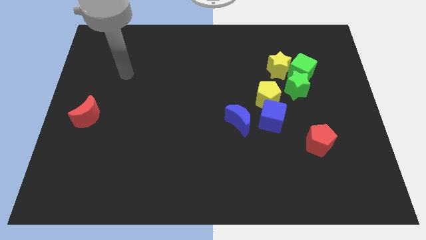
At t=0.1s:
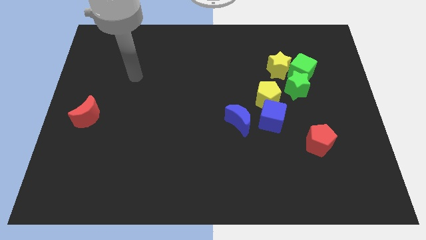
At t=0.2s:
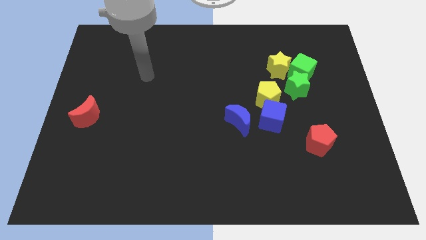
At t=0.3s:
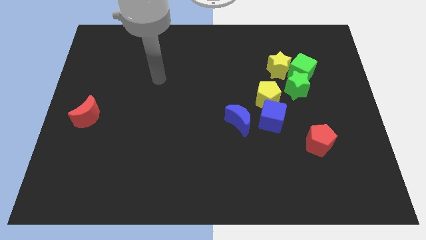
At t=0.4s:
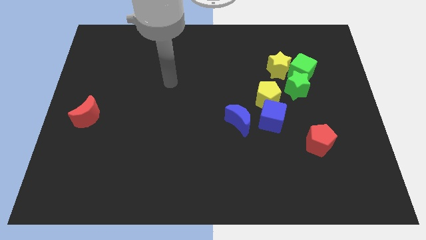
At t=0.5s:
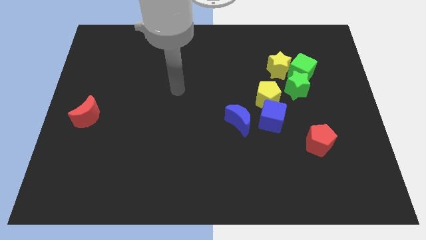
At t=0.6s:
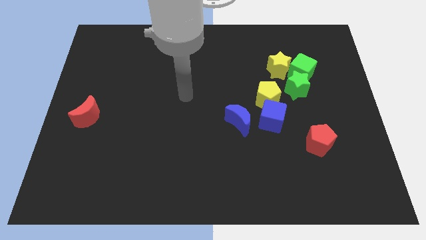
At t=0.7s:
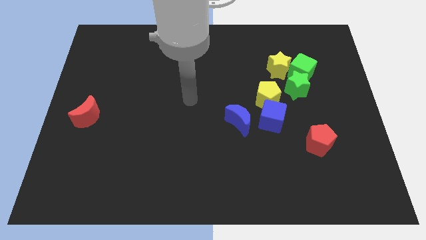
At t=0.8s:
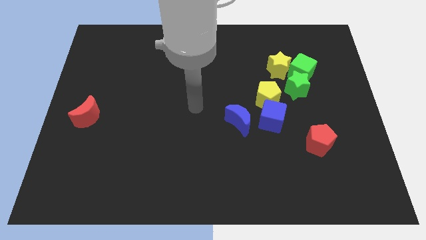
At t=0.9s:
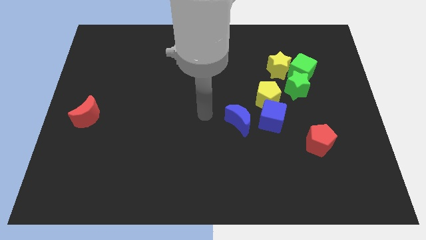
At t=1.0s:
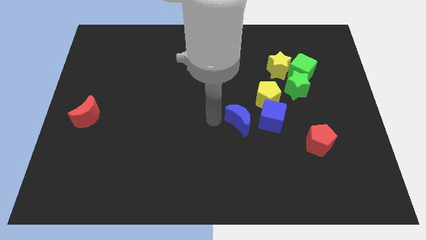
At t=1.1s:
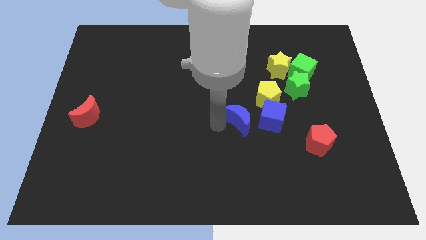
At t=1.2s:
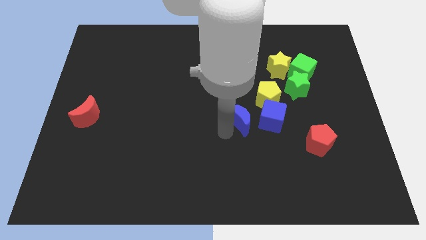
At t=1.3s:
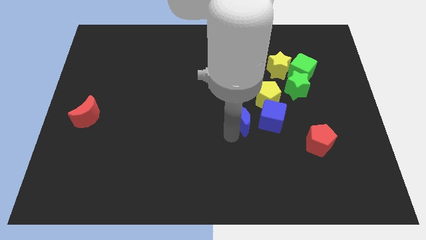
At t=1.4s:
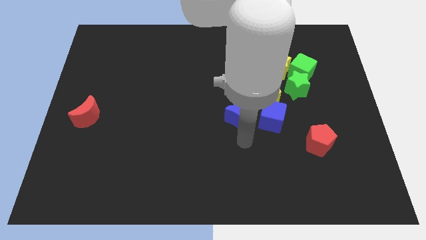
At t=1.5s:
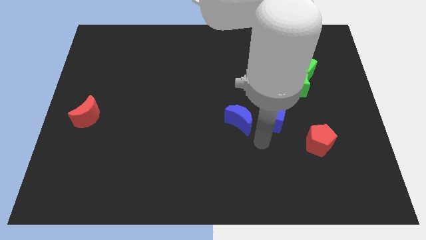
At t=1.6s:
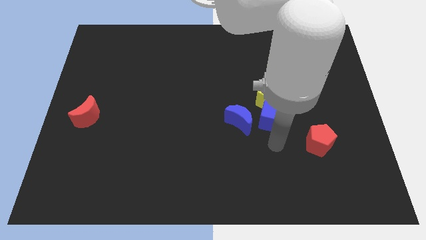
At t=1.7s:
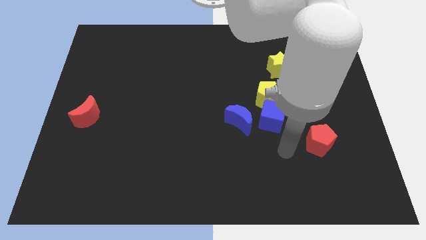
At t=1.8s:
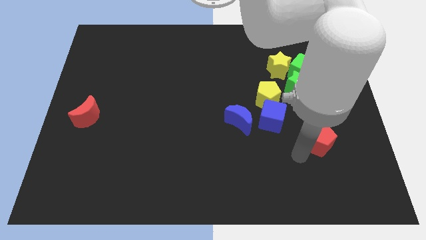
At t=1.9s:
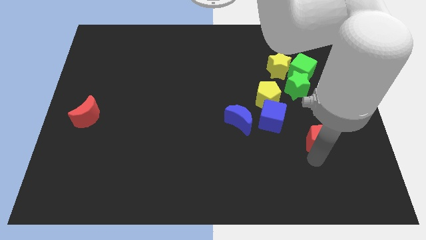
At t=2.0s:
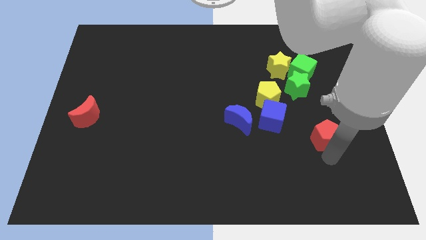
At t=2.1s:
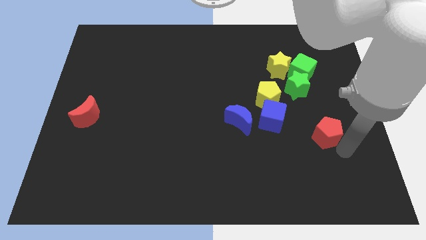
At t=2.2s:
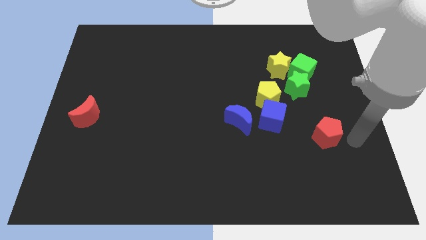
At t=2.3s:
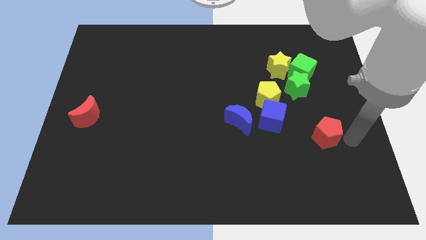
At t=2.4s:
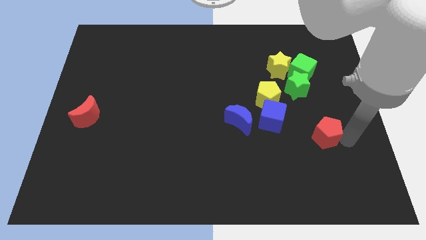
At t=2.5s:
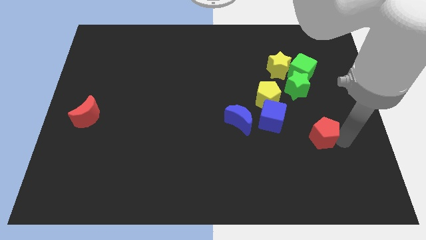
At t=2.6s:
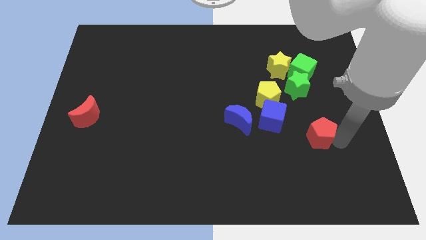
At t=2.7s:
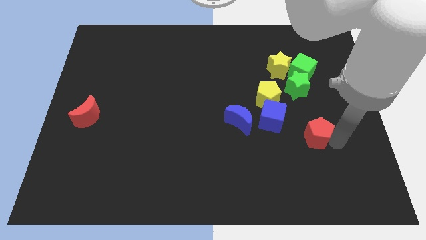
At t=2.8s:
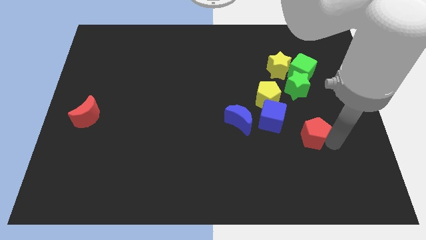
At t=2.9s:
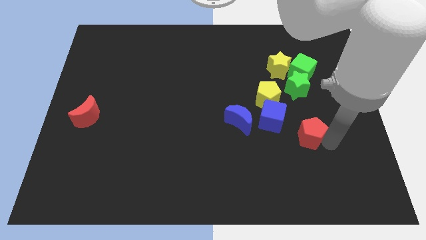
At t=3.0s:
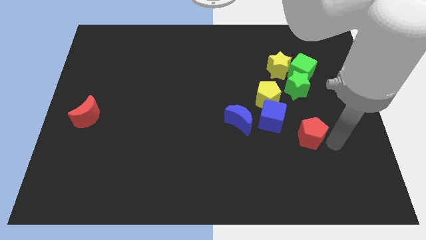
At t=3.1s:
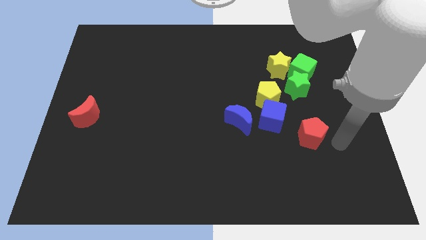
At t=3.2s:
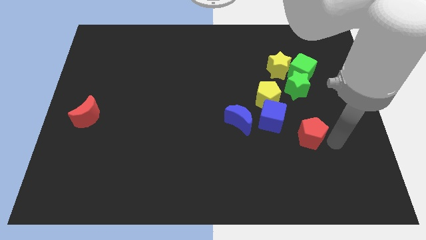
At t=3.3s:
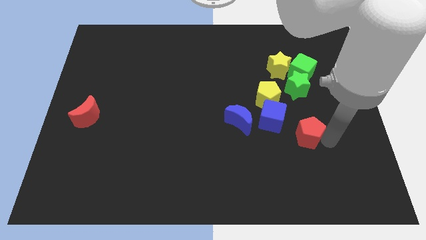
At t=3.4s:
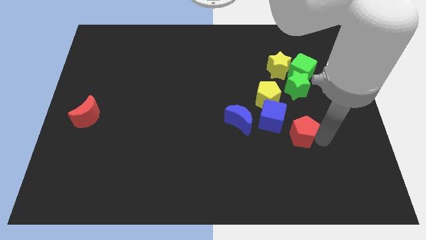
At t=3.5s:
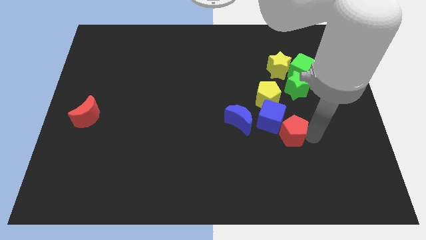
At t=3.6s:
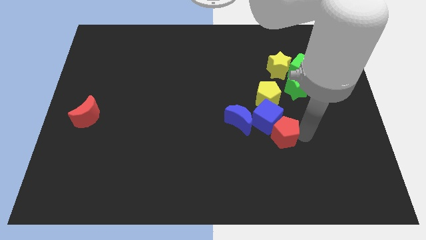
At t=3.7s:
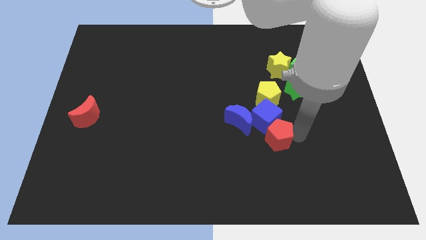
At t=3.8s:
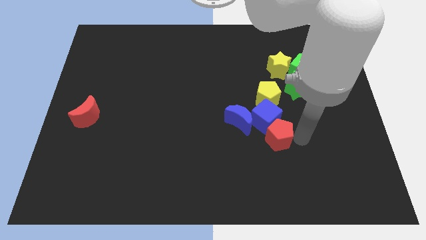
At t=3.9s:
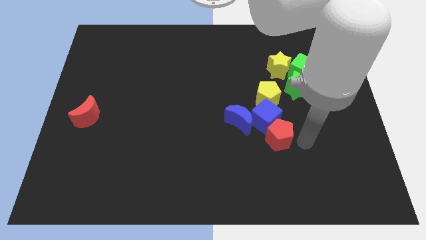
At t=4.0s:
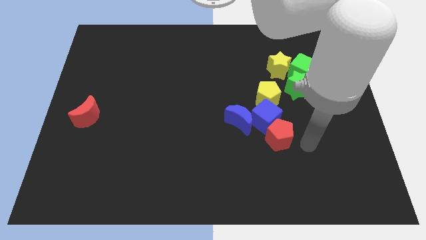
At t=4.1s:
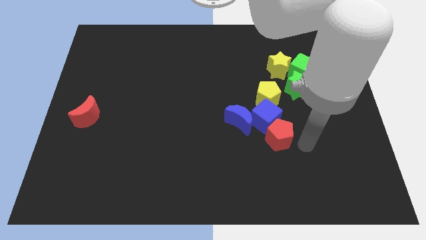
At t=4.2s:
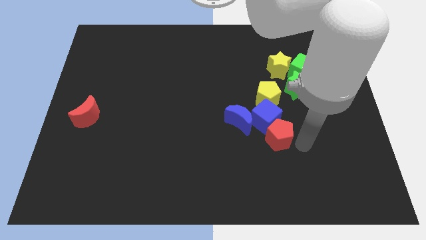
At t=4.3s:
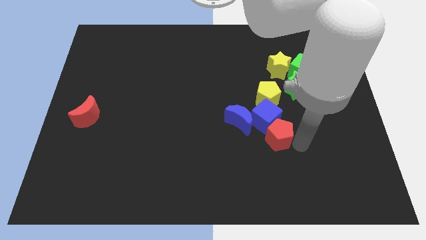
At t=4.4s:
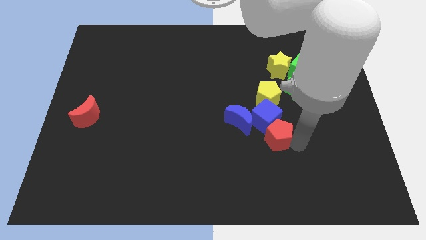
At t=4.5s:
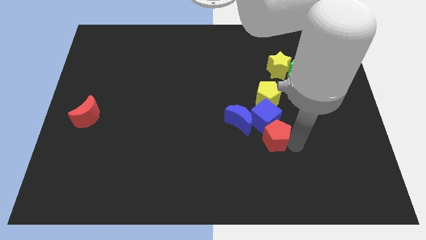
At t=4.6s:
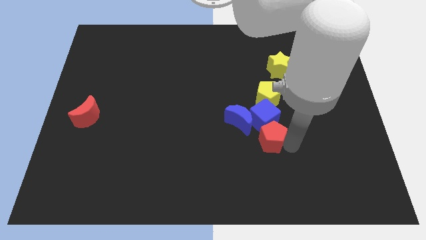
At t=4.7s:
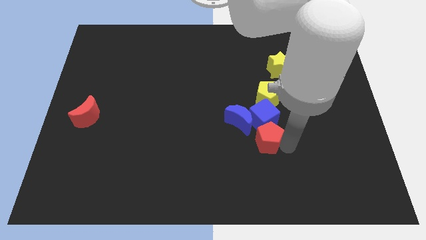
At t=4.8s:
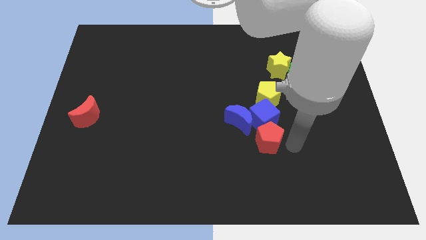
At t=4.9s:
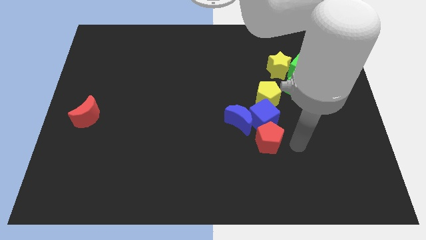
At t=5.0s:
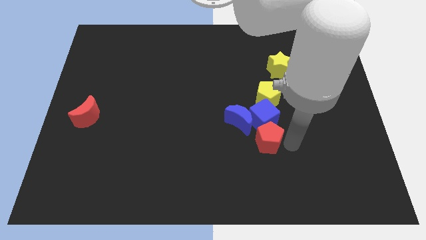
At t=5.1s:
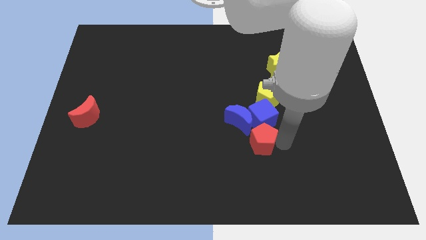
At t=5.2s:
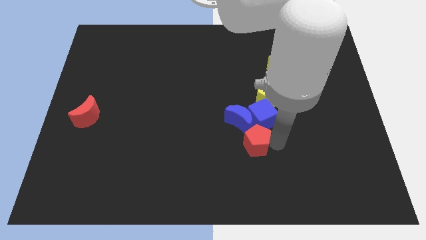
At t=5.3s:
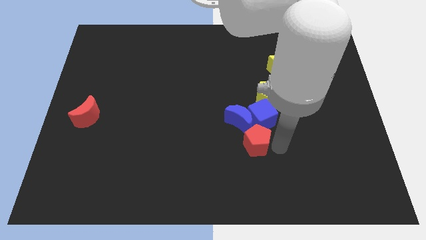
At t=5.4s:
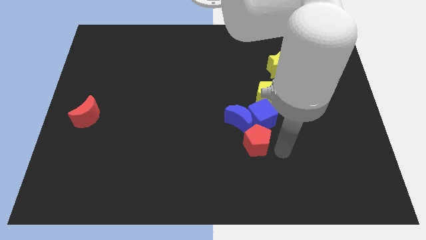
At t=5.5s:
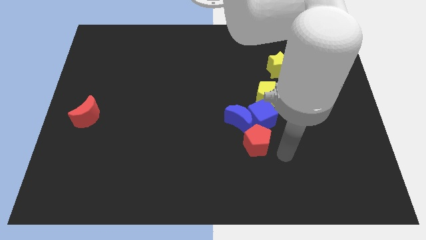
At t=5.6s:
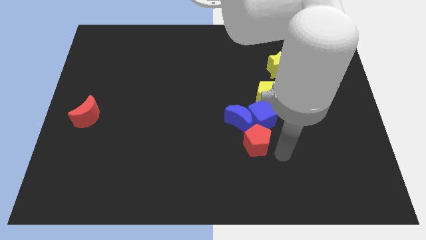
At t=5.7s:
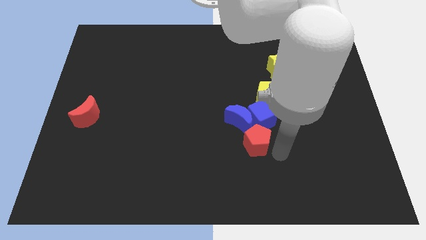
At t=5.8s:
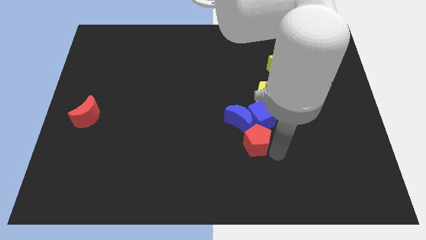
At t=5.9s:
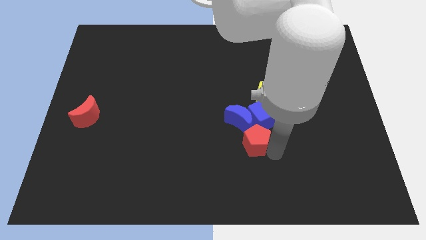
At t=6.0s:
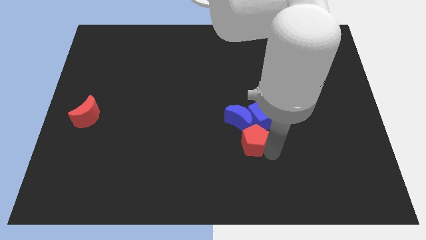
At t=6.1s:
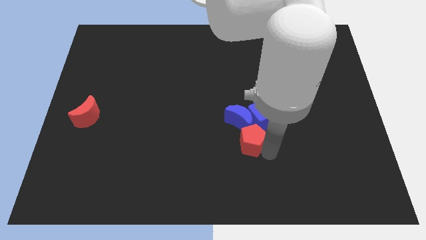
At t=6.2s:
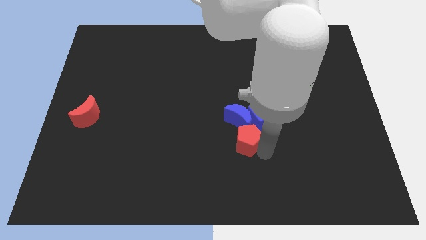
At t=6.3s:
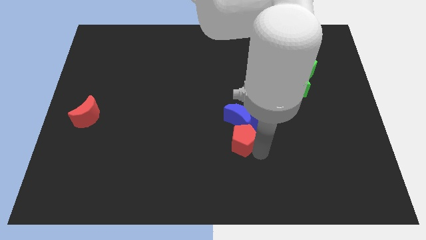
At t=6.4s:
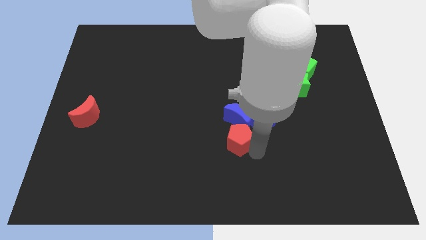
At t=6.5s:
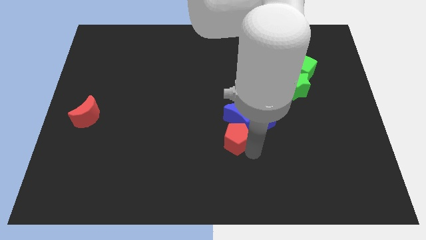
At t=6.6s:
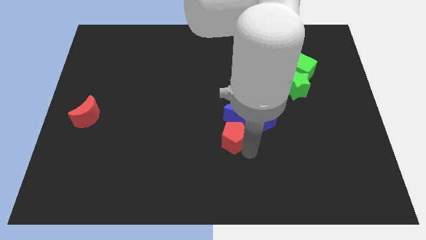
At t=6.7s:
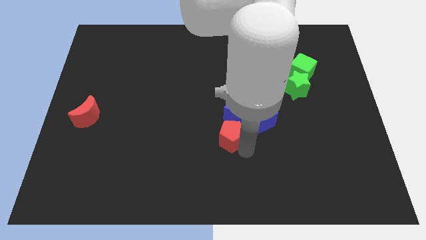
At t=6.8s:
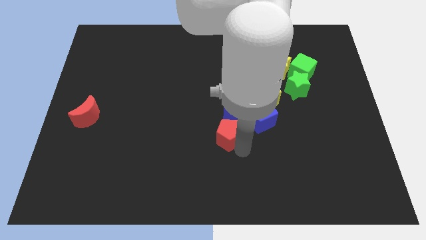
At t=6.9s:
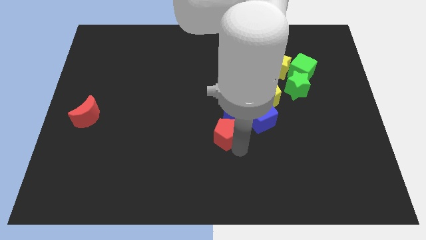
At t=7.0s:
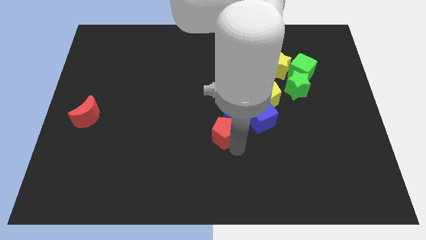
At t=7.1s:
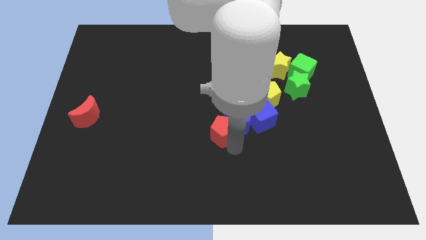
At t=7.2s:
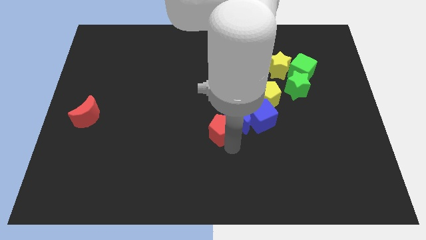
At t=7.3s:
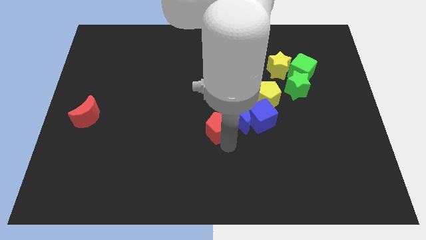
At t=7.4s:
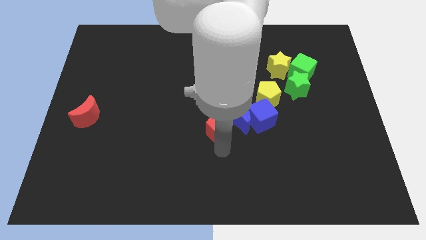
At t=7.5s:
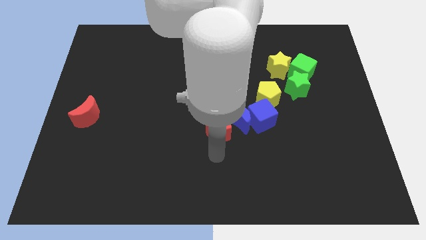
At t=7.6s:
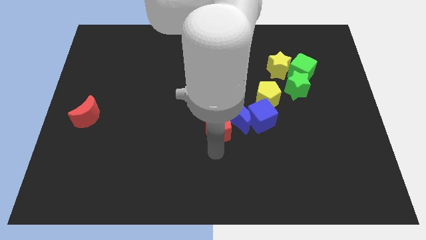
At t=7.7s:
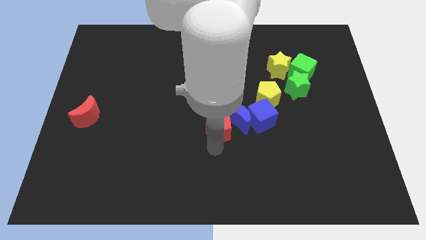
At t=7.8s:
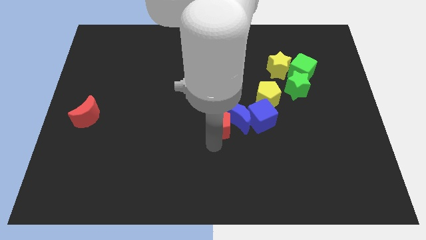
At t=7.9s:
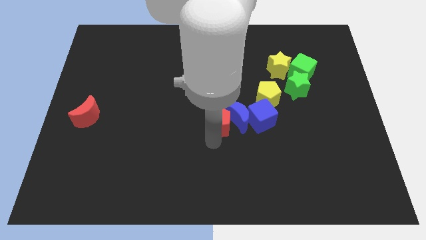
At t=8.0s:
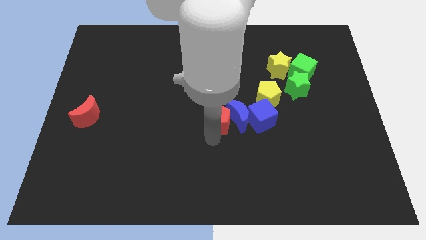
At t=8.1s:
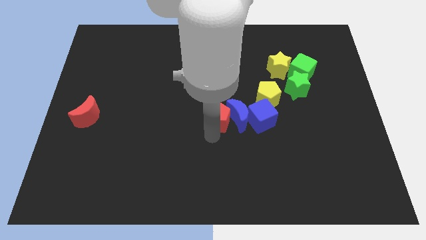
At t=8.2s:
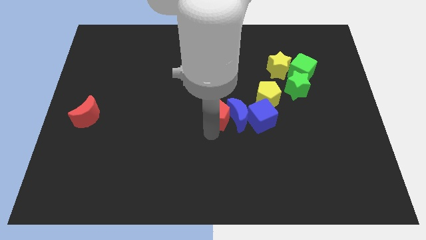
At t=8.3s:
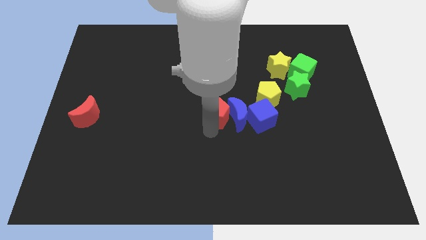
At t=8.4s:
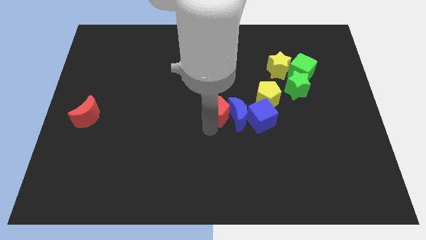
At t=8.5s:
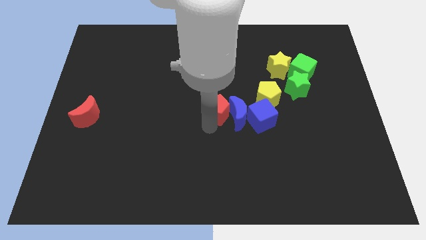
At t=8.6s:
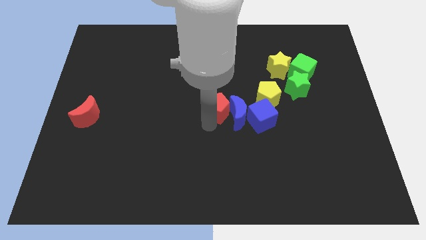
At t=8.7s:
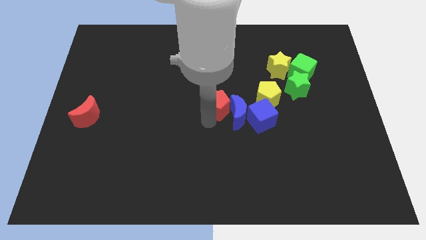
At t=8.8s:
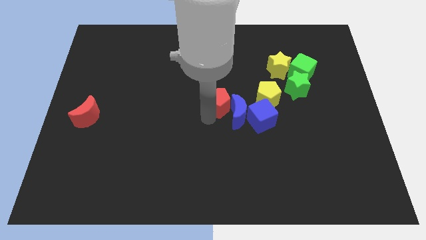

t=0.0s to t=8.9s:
move the red pentagon up and left diagonally
